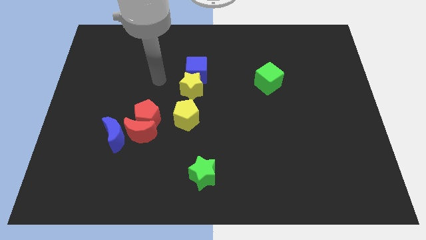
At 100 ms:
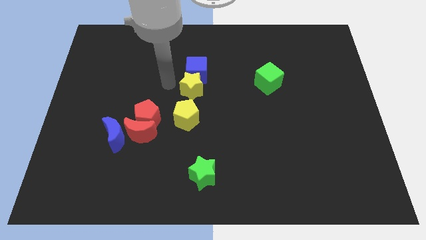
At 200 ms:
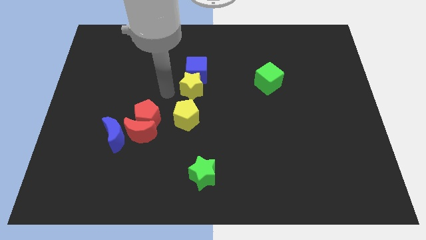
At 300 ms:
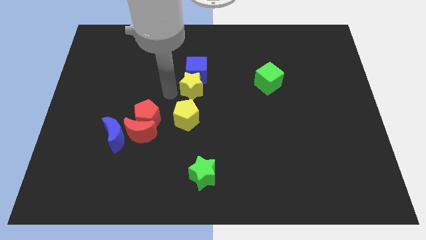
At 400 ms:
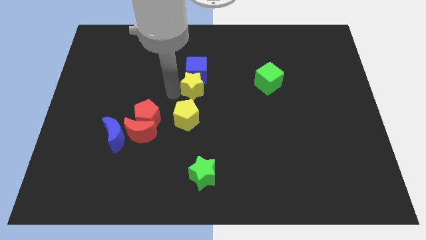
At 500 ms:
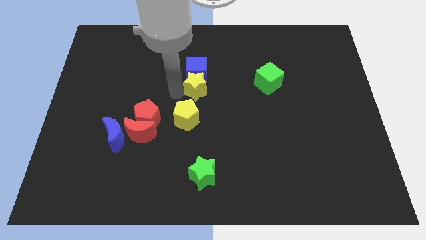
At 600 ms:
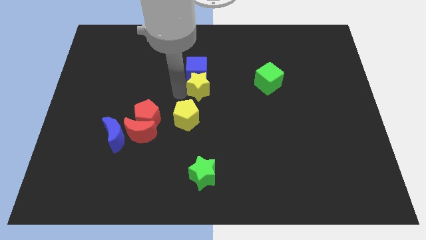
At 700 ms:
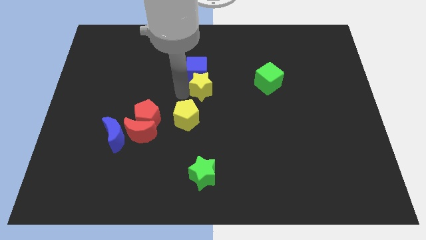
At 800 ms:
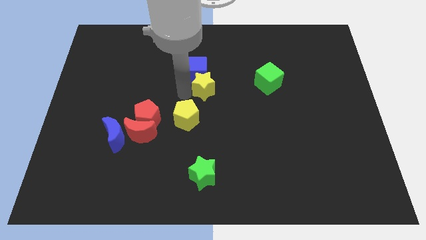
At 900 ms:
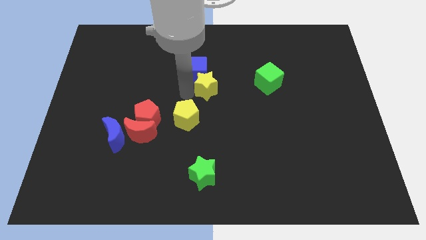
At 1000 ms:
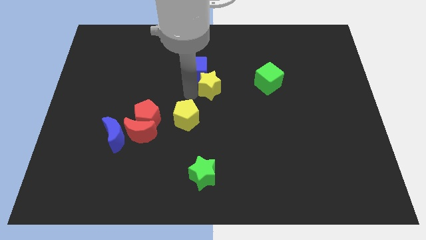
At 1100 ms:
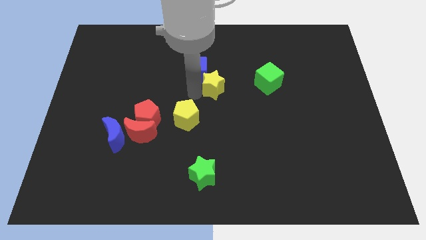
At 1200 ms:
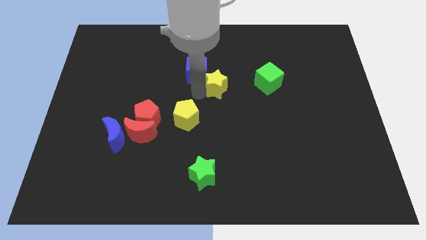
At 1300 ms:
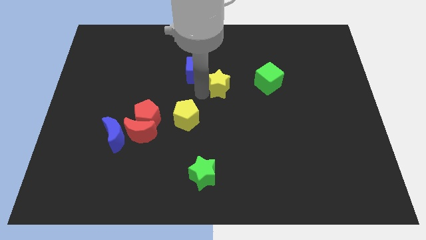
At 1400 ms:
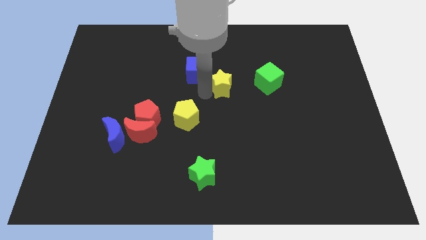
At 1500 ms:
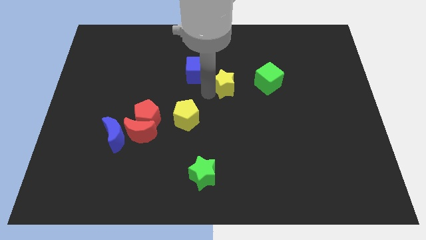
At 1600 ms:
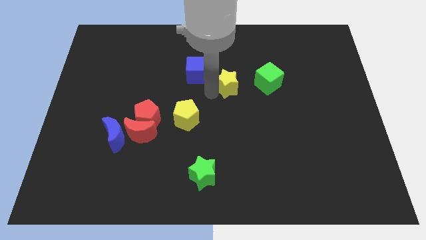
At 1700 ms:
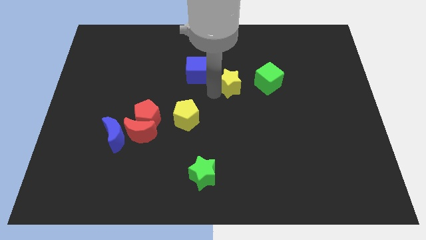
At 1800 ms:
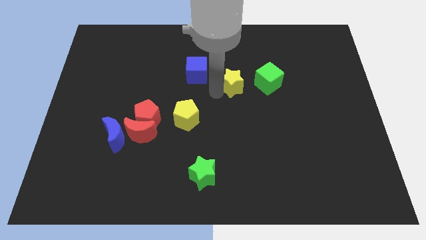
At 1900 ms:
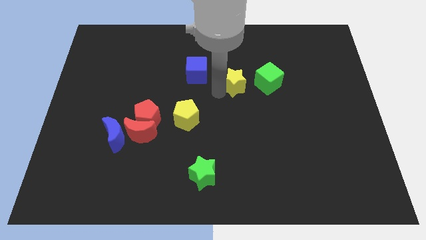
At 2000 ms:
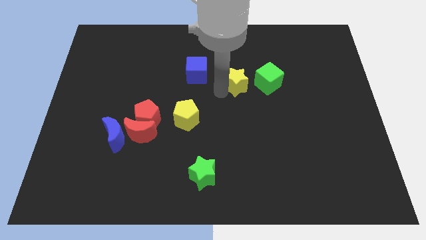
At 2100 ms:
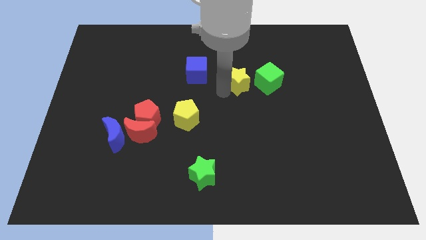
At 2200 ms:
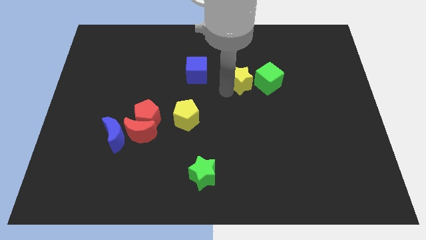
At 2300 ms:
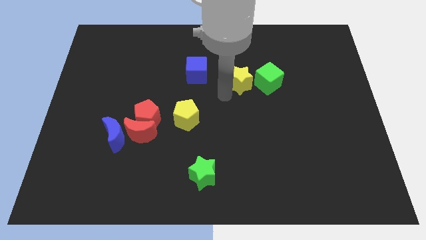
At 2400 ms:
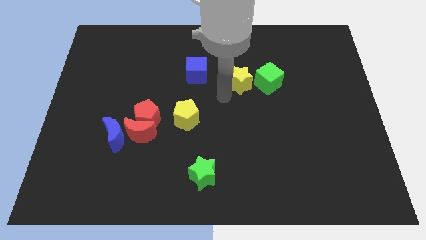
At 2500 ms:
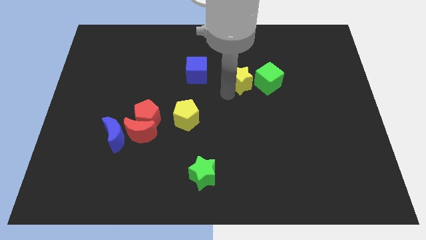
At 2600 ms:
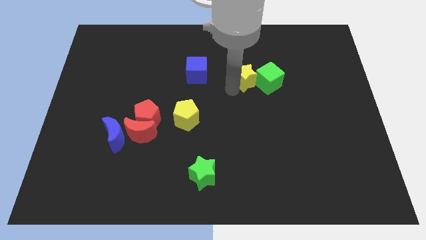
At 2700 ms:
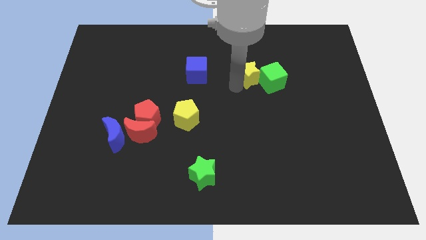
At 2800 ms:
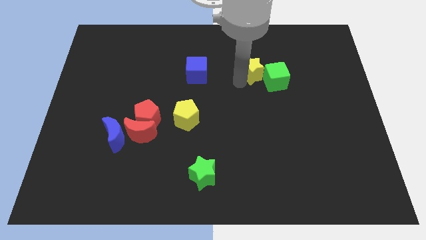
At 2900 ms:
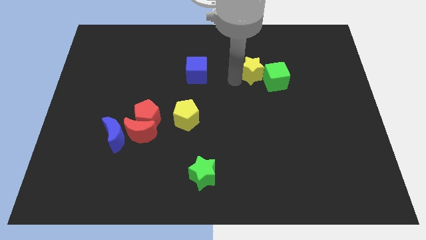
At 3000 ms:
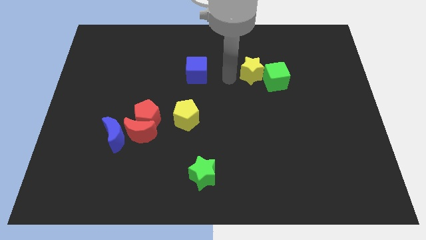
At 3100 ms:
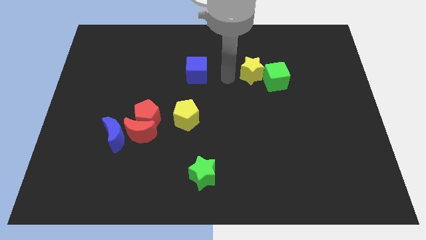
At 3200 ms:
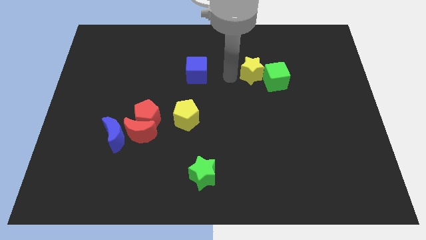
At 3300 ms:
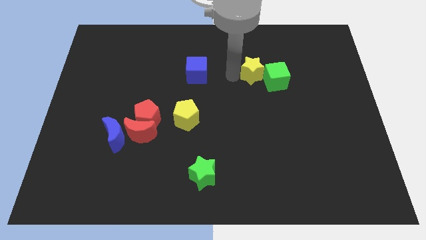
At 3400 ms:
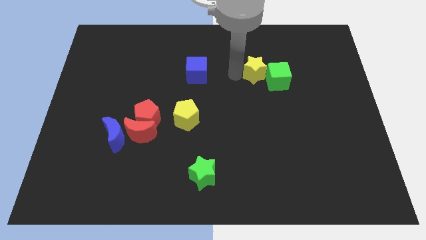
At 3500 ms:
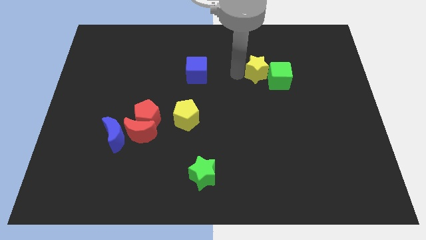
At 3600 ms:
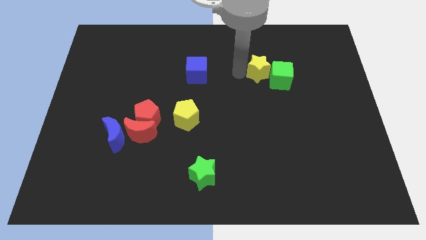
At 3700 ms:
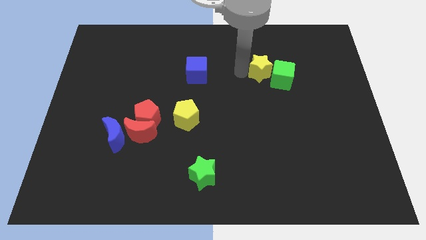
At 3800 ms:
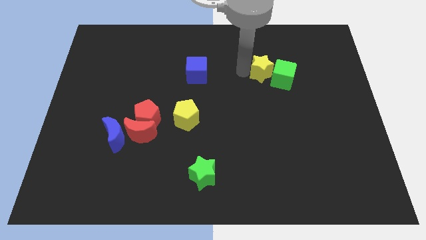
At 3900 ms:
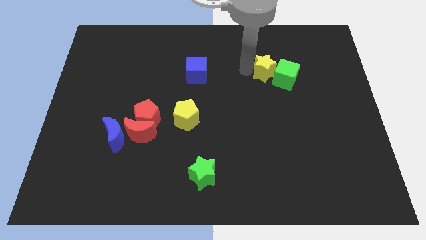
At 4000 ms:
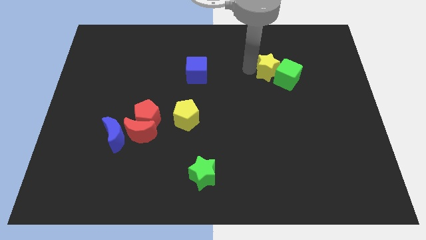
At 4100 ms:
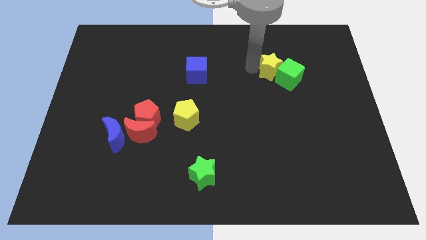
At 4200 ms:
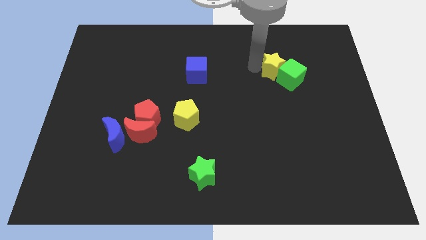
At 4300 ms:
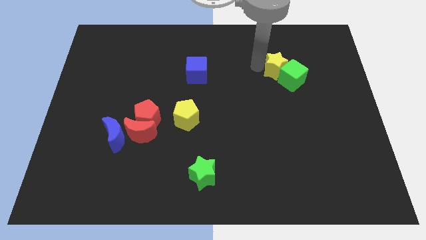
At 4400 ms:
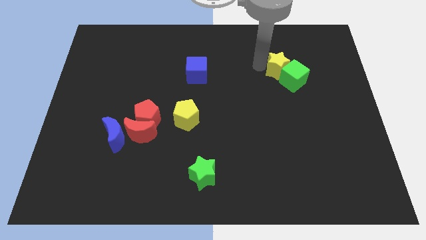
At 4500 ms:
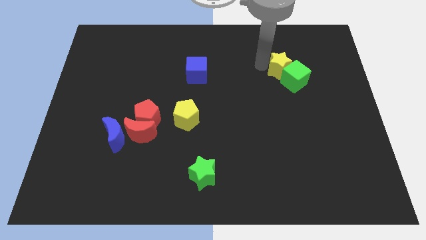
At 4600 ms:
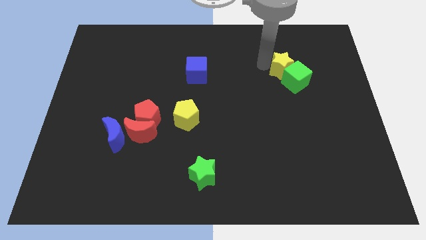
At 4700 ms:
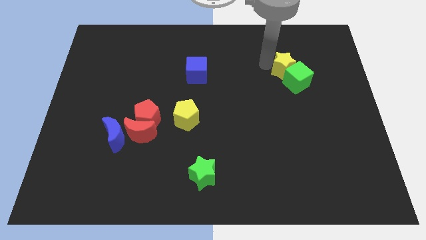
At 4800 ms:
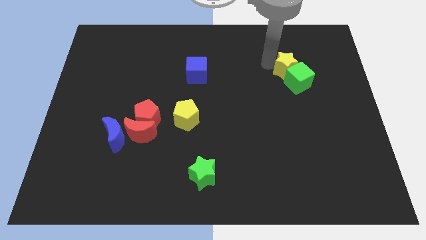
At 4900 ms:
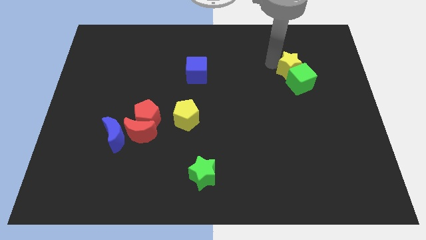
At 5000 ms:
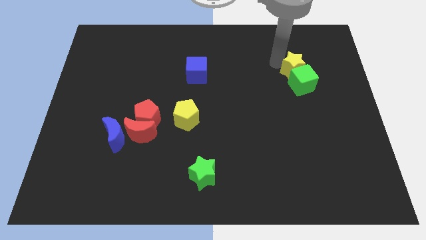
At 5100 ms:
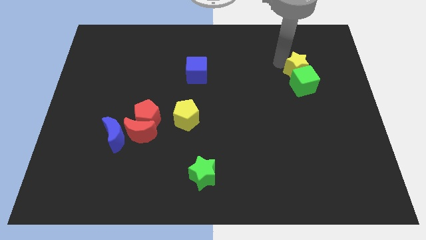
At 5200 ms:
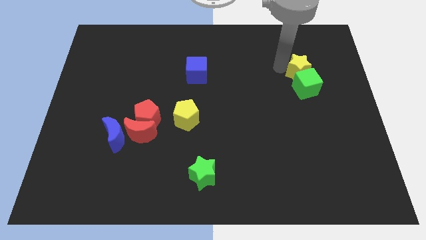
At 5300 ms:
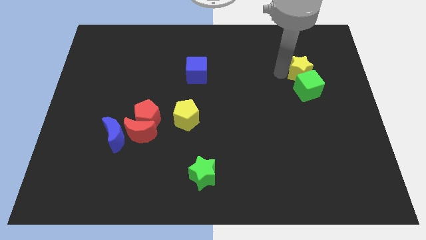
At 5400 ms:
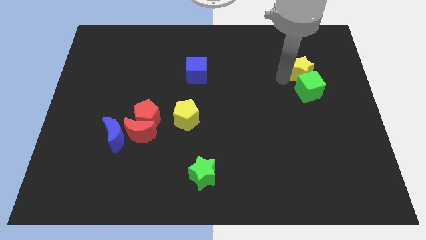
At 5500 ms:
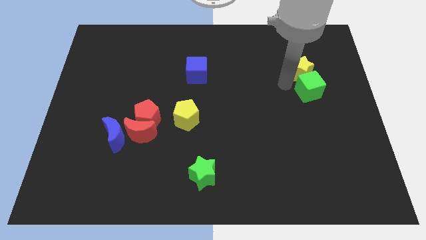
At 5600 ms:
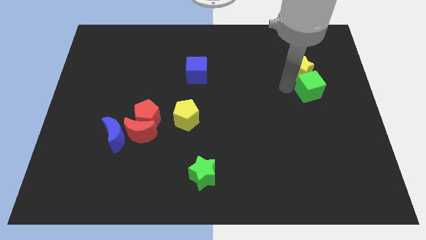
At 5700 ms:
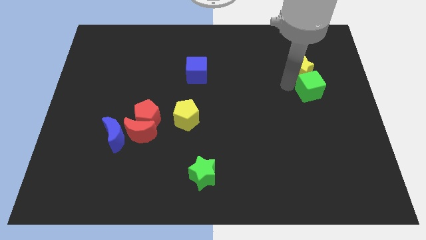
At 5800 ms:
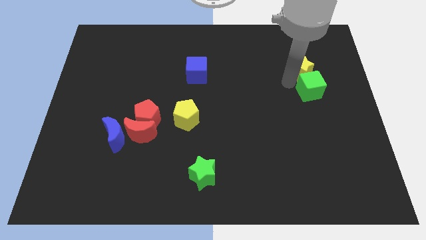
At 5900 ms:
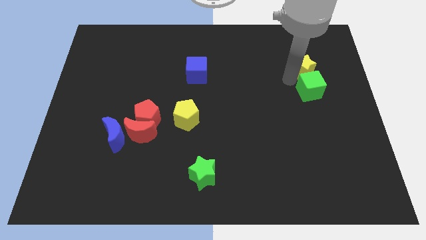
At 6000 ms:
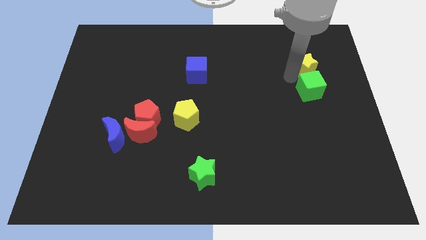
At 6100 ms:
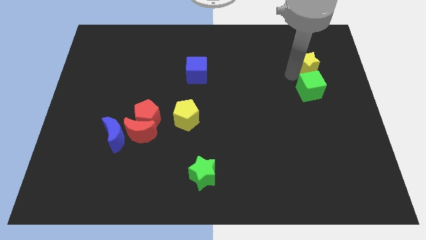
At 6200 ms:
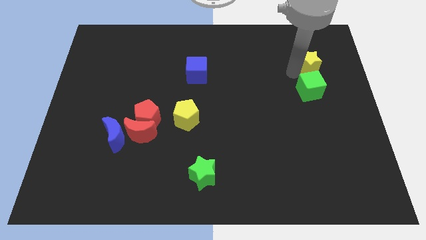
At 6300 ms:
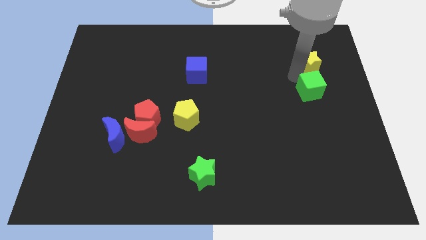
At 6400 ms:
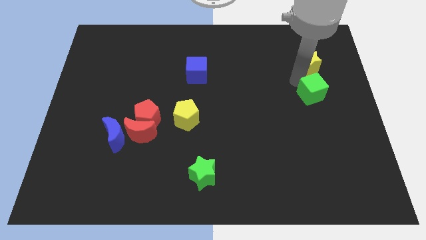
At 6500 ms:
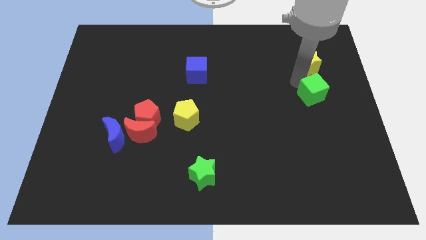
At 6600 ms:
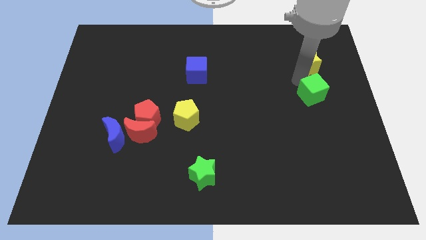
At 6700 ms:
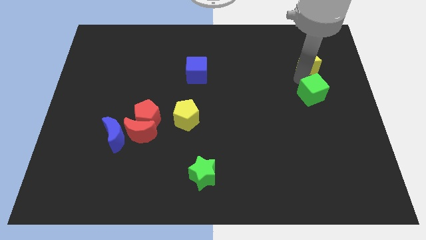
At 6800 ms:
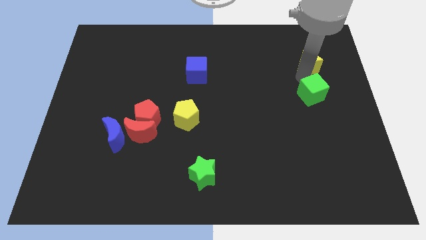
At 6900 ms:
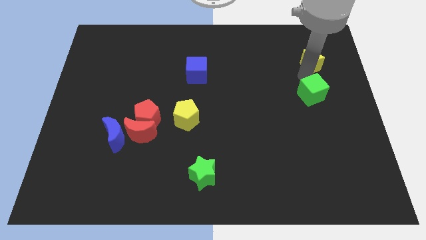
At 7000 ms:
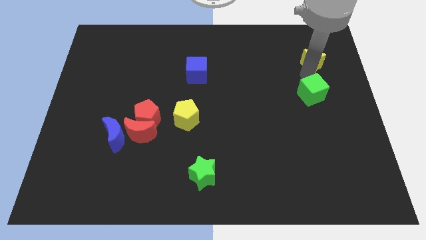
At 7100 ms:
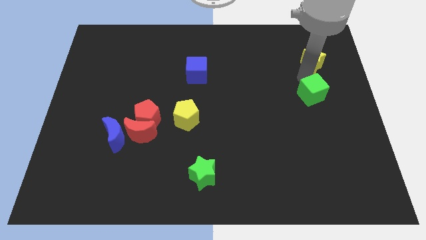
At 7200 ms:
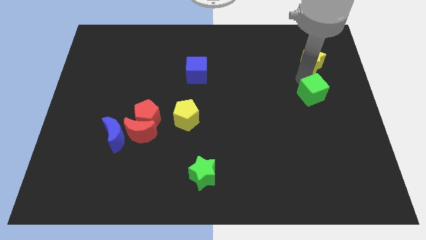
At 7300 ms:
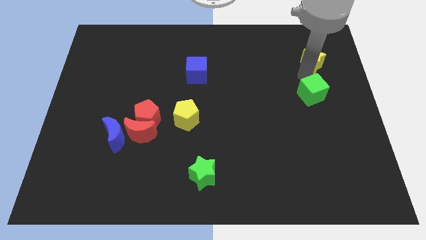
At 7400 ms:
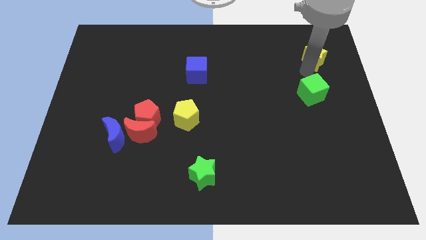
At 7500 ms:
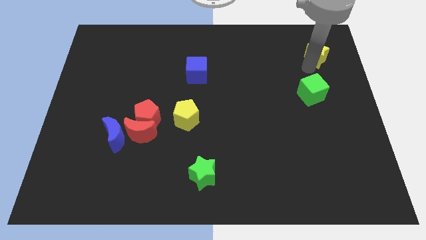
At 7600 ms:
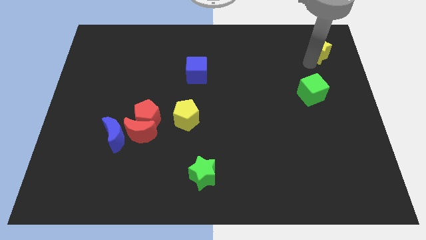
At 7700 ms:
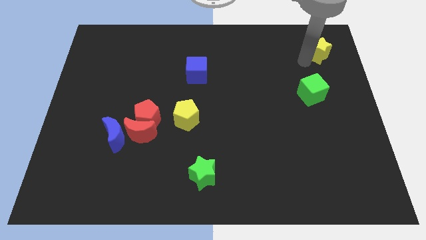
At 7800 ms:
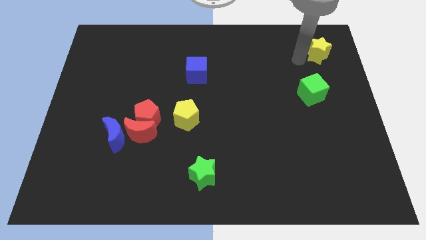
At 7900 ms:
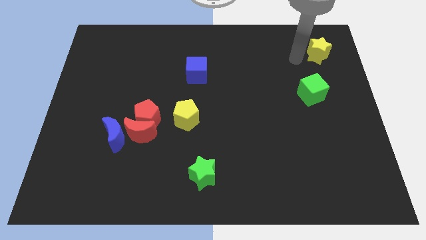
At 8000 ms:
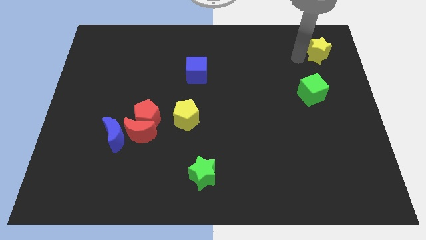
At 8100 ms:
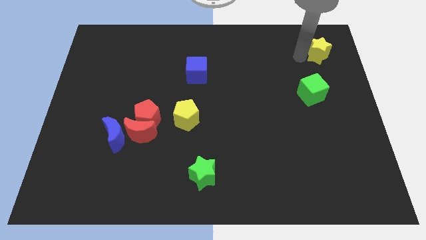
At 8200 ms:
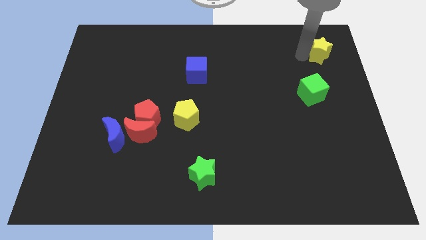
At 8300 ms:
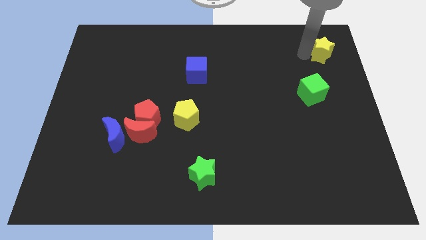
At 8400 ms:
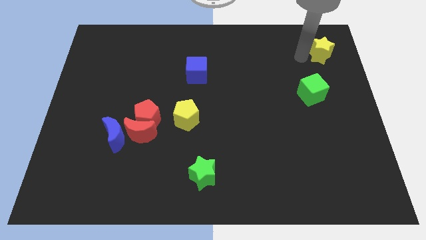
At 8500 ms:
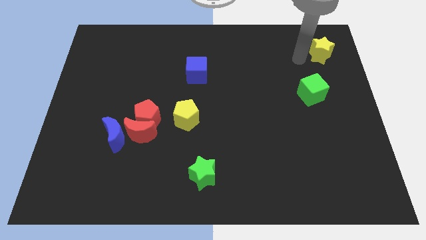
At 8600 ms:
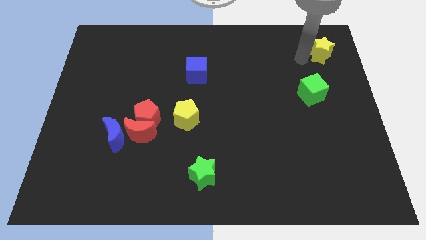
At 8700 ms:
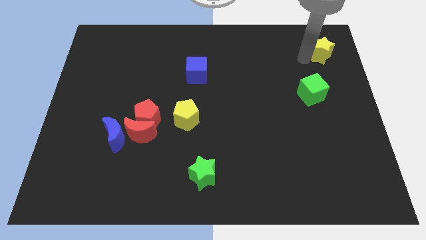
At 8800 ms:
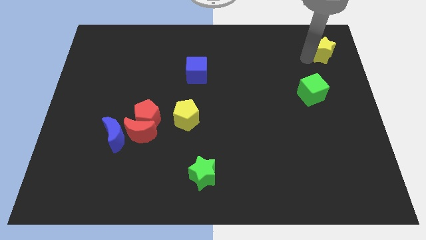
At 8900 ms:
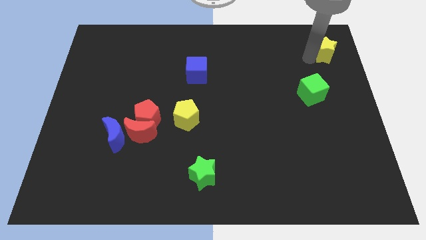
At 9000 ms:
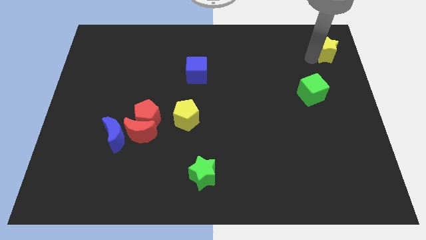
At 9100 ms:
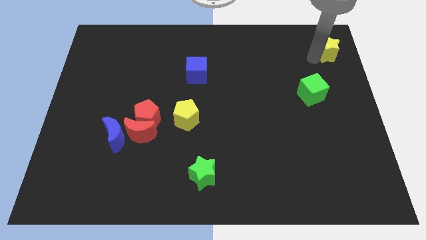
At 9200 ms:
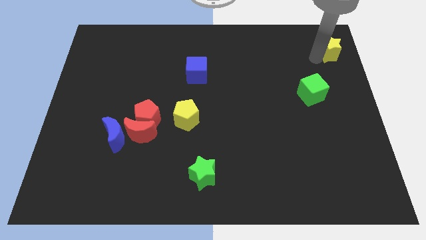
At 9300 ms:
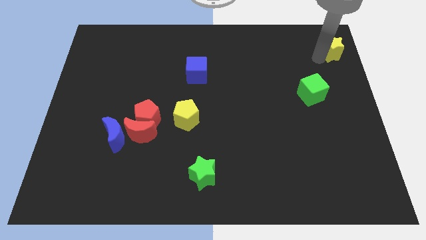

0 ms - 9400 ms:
slide the yellow star to the upper right corner
